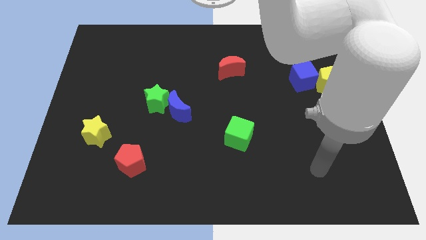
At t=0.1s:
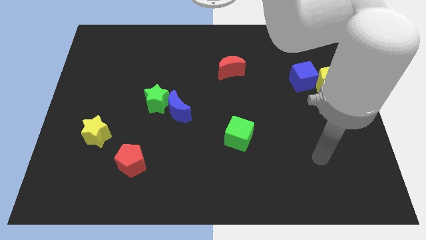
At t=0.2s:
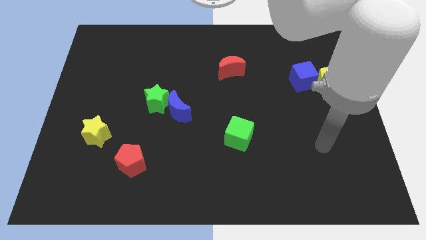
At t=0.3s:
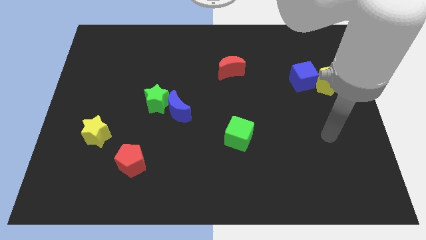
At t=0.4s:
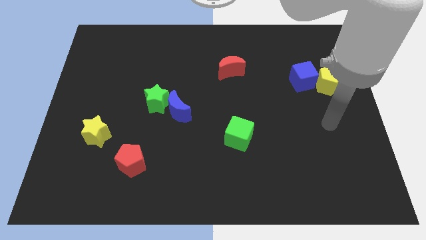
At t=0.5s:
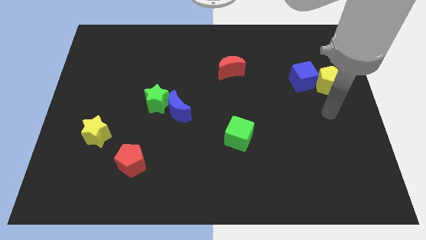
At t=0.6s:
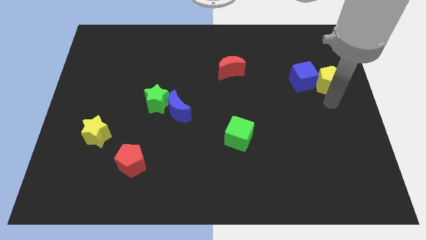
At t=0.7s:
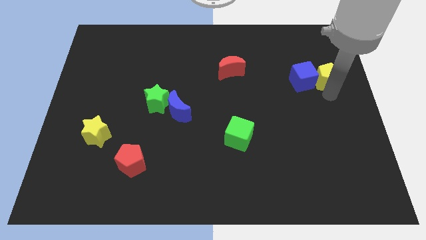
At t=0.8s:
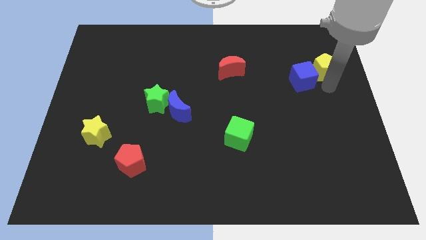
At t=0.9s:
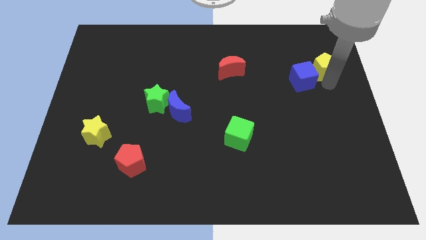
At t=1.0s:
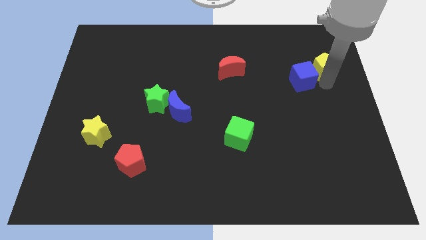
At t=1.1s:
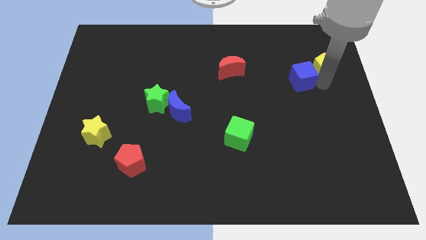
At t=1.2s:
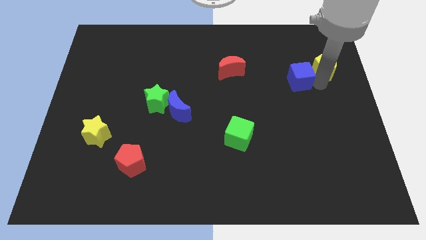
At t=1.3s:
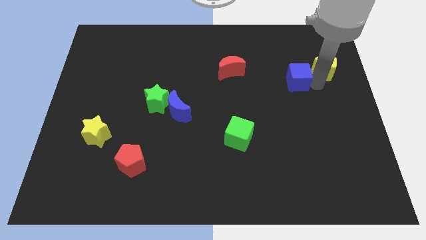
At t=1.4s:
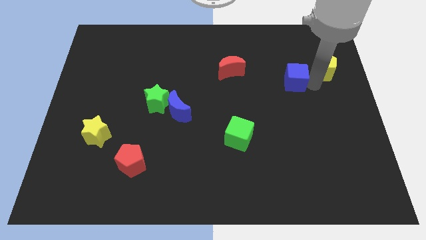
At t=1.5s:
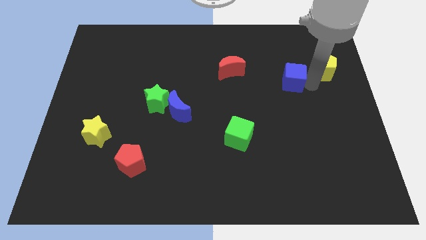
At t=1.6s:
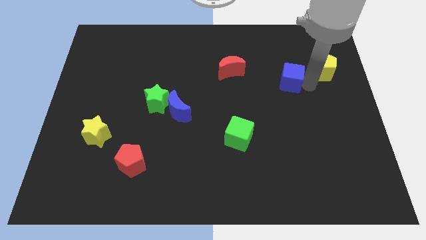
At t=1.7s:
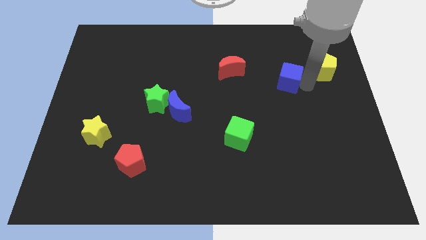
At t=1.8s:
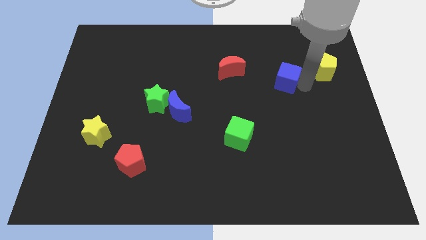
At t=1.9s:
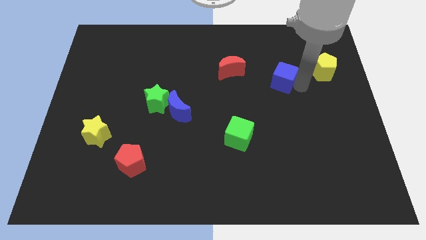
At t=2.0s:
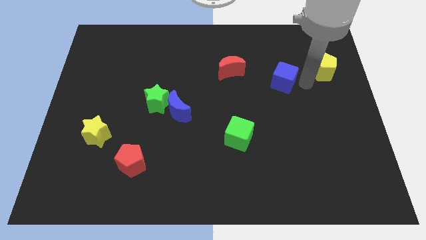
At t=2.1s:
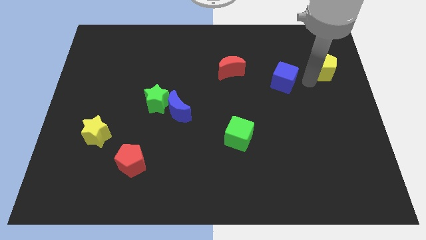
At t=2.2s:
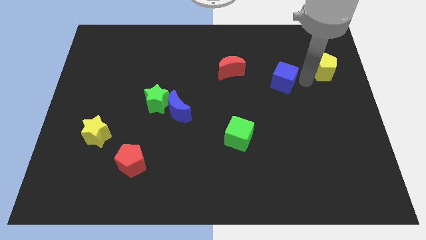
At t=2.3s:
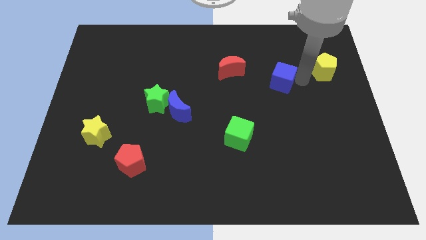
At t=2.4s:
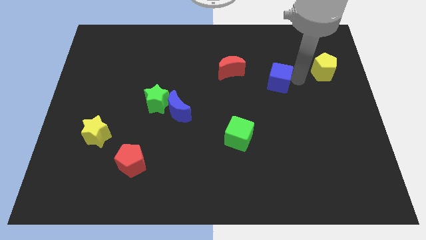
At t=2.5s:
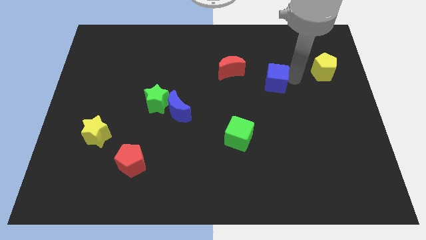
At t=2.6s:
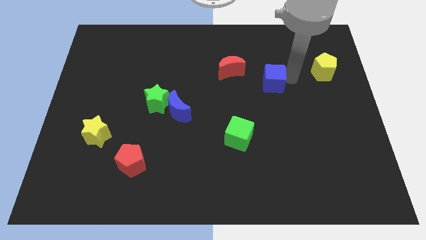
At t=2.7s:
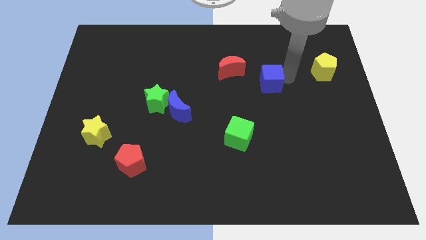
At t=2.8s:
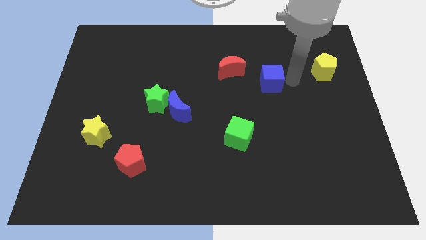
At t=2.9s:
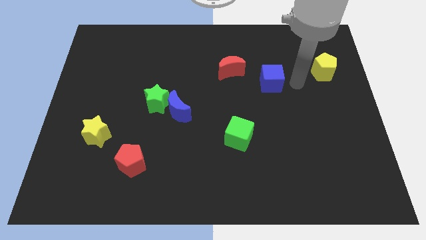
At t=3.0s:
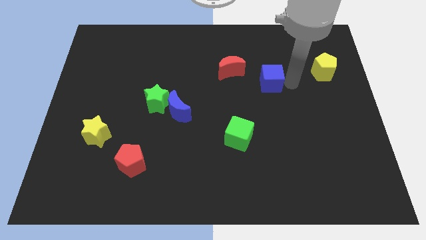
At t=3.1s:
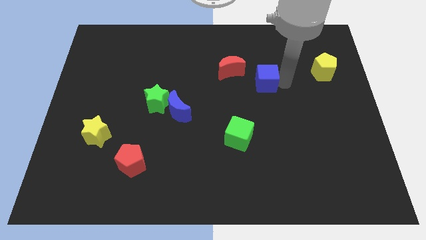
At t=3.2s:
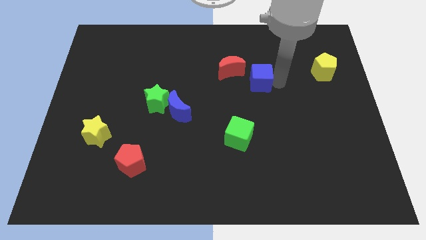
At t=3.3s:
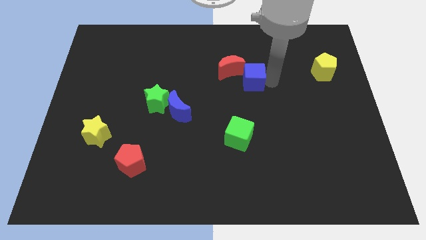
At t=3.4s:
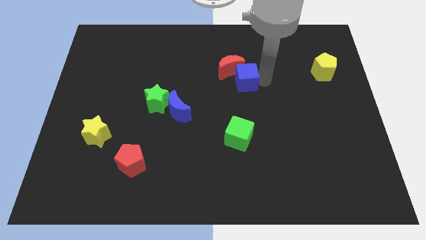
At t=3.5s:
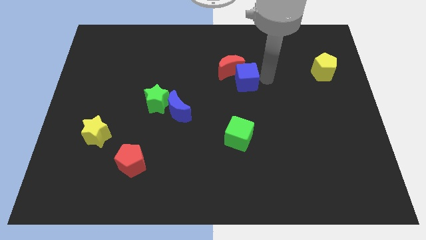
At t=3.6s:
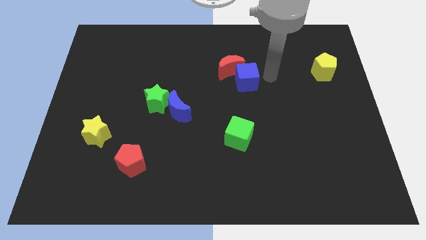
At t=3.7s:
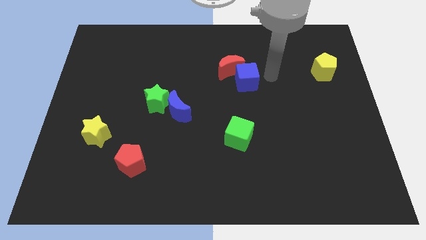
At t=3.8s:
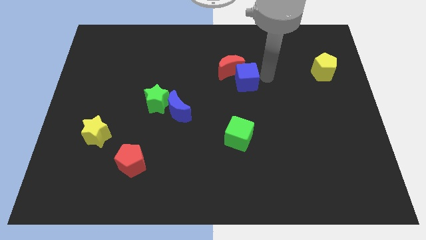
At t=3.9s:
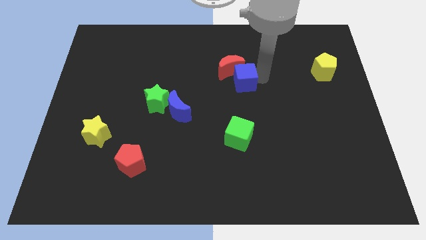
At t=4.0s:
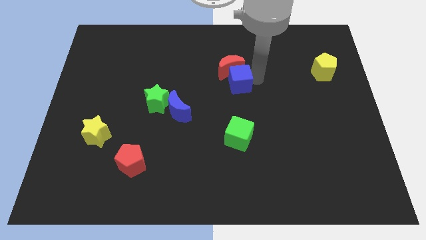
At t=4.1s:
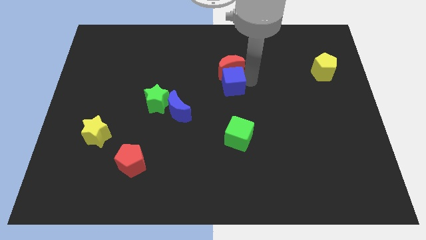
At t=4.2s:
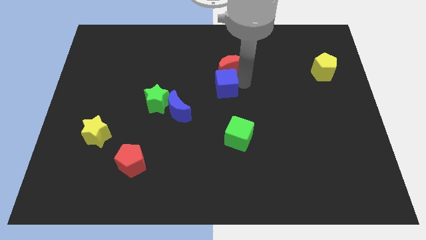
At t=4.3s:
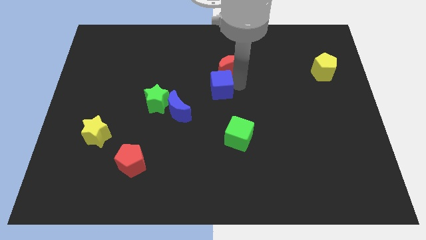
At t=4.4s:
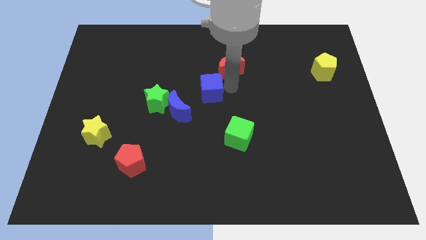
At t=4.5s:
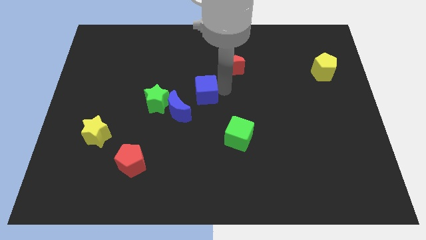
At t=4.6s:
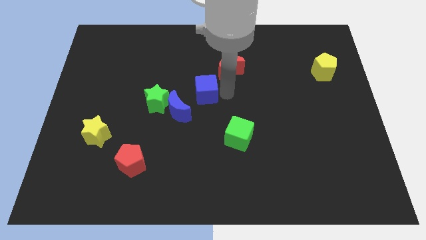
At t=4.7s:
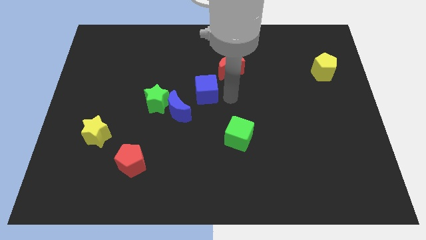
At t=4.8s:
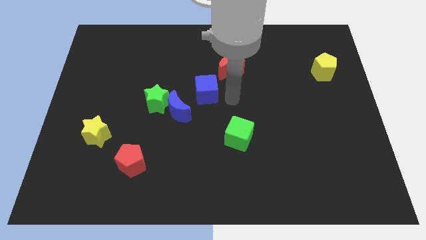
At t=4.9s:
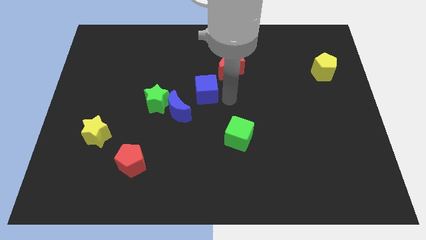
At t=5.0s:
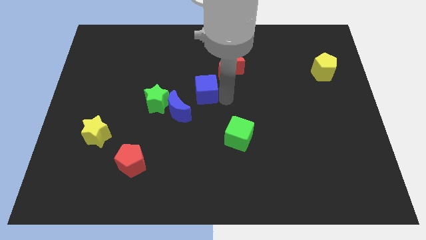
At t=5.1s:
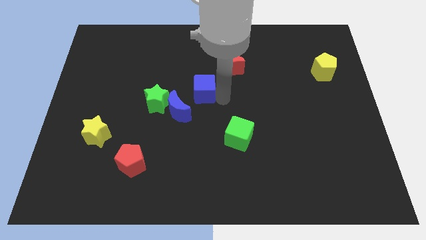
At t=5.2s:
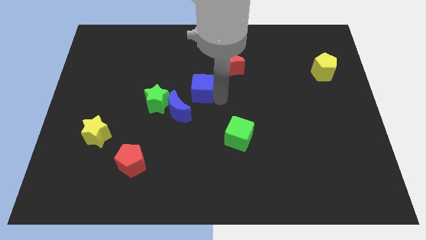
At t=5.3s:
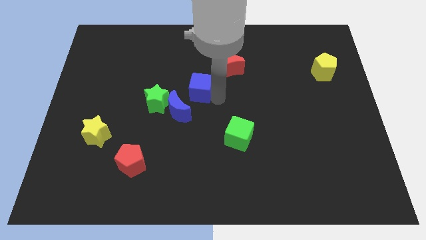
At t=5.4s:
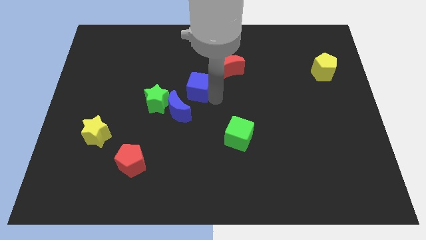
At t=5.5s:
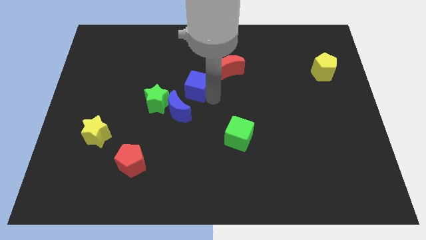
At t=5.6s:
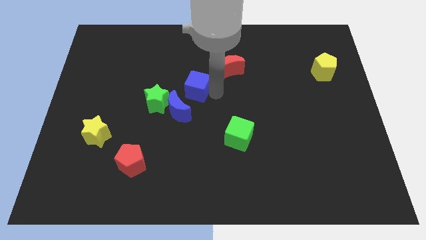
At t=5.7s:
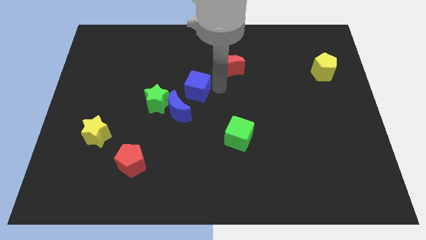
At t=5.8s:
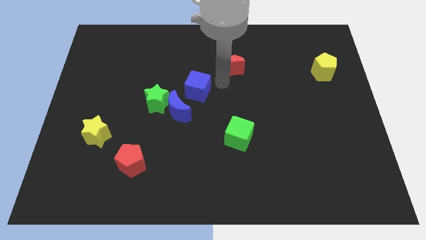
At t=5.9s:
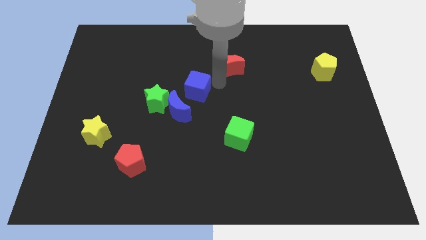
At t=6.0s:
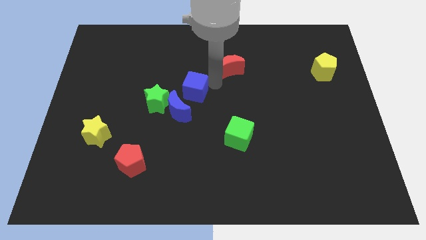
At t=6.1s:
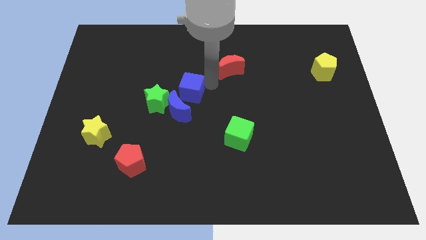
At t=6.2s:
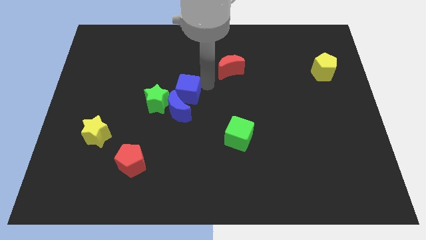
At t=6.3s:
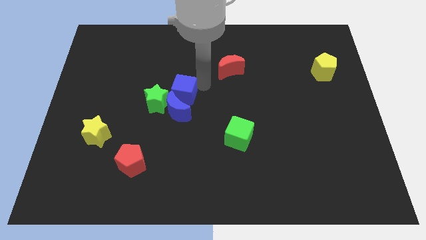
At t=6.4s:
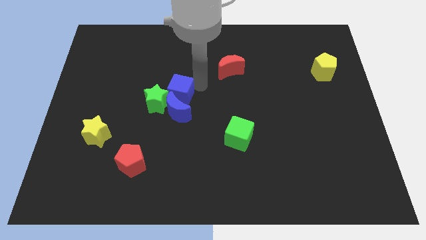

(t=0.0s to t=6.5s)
move the blue cube close to the green star

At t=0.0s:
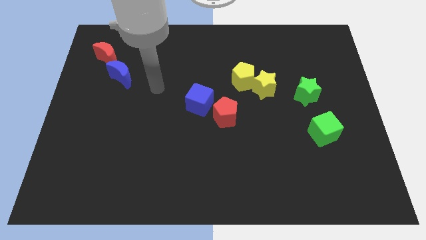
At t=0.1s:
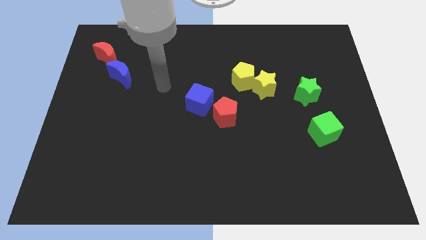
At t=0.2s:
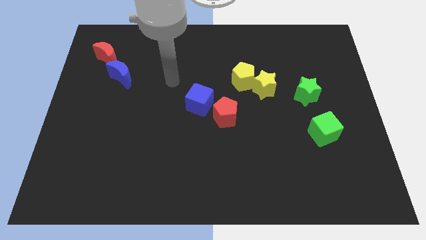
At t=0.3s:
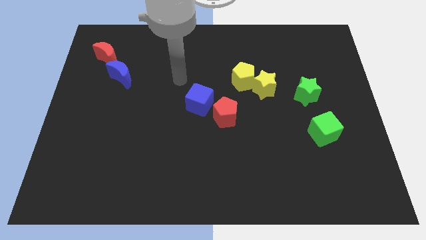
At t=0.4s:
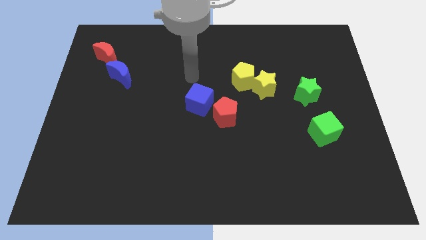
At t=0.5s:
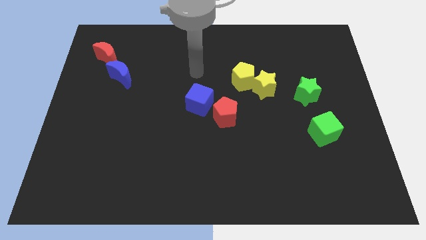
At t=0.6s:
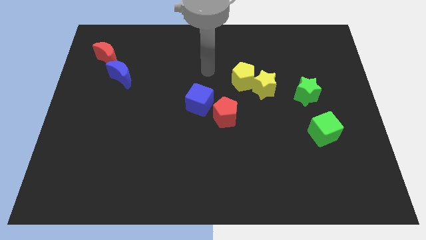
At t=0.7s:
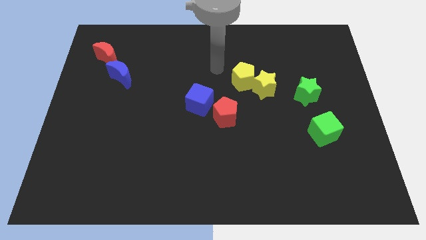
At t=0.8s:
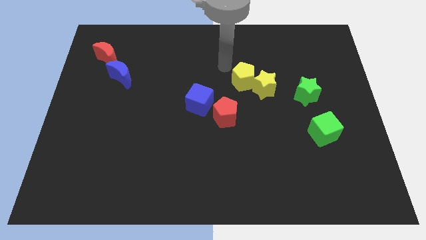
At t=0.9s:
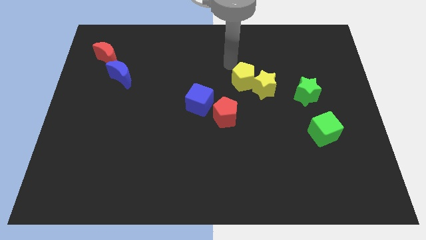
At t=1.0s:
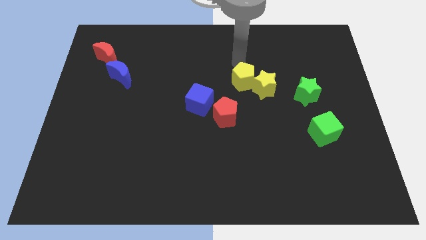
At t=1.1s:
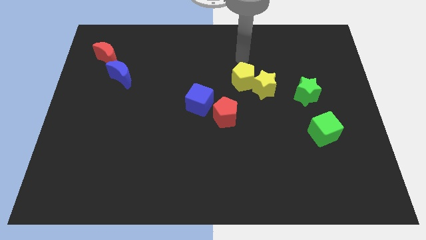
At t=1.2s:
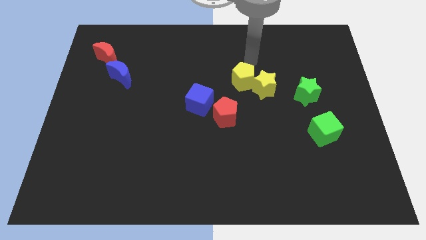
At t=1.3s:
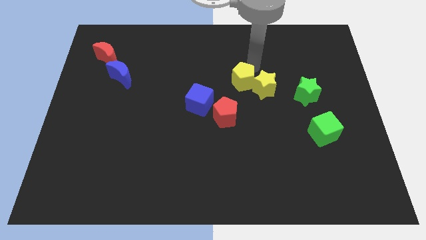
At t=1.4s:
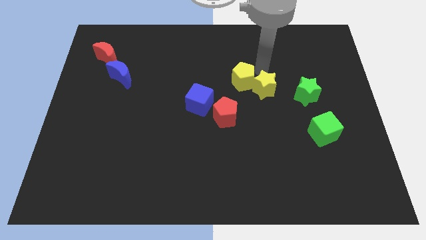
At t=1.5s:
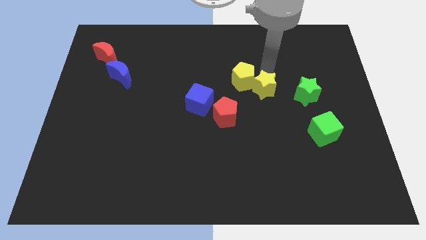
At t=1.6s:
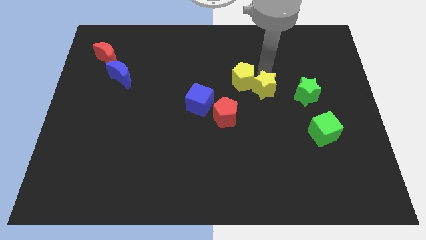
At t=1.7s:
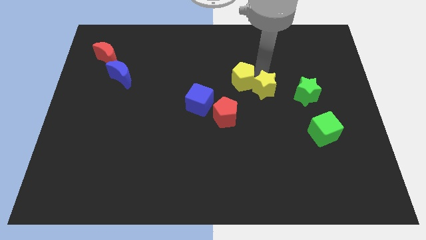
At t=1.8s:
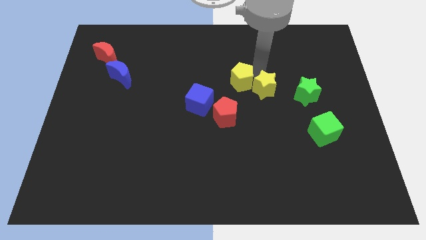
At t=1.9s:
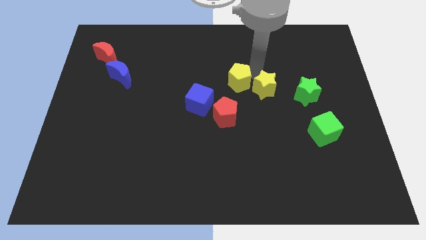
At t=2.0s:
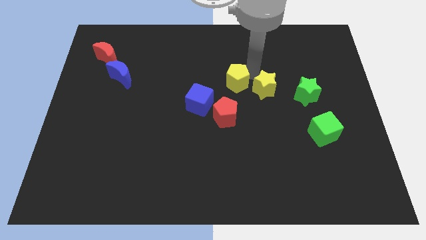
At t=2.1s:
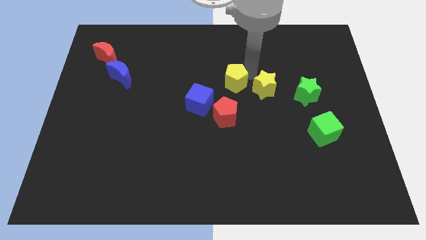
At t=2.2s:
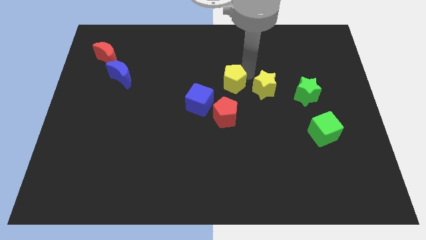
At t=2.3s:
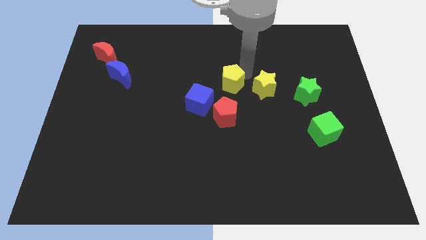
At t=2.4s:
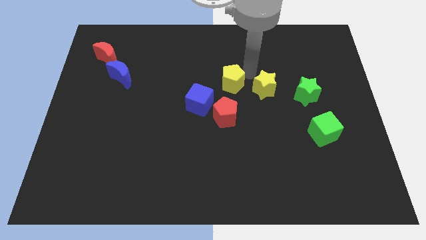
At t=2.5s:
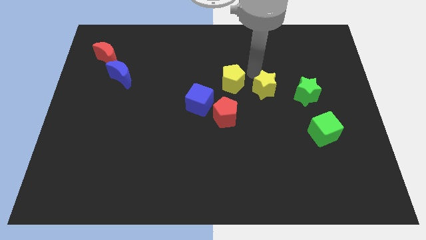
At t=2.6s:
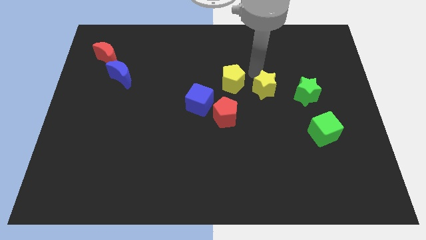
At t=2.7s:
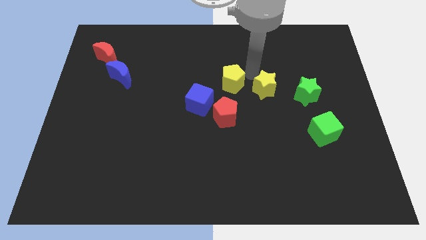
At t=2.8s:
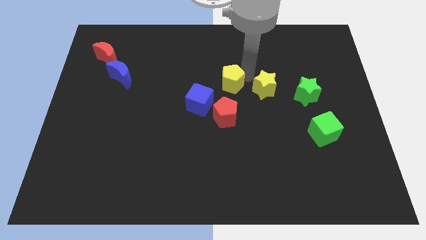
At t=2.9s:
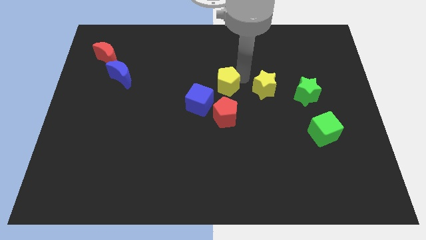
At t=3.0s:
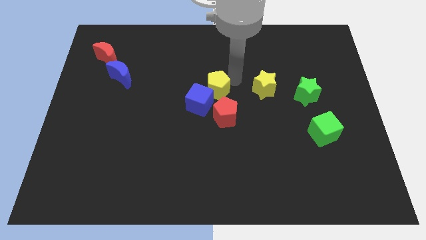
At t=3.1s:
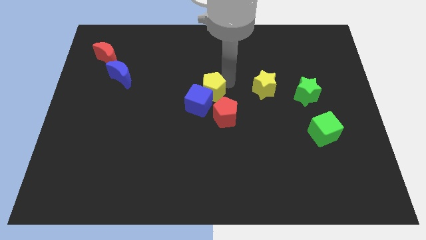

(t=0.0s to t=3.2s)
slide the yellow pentagon to the blue cube
